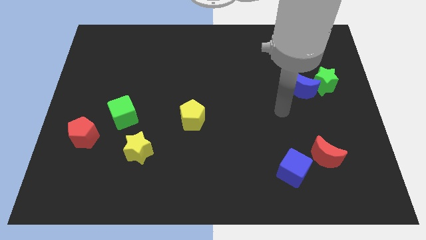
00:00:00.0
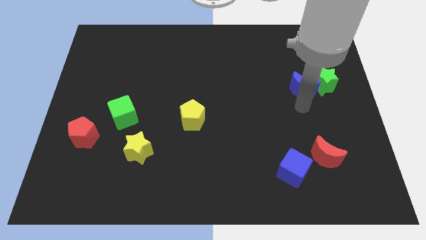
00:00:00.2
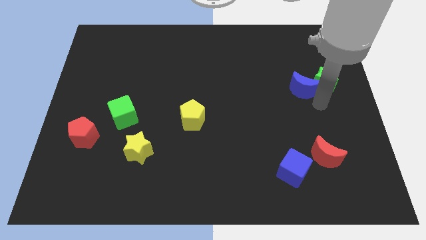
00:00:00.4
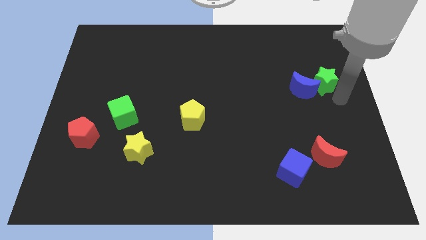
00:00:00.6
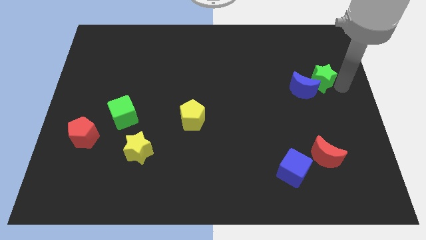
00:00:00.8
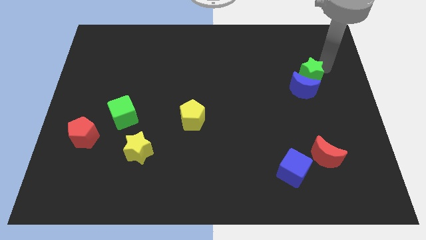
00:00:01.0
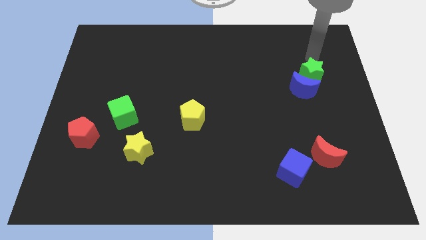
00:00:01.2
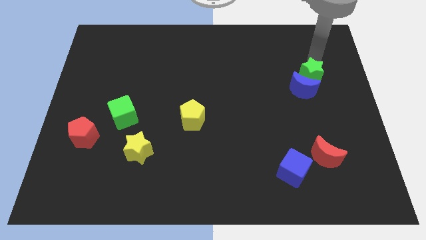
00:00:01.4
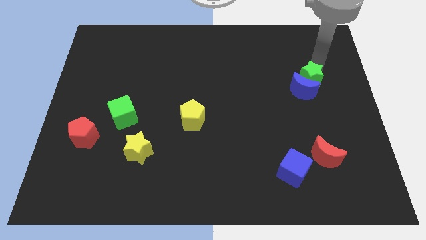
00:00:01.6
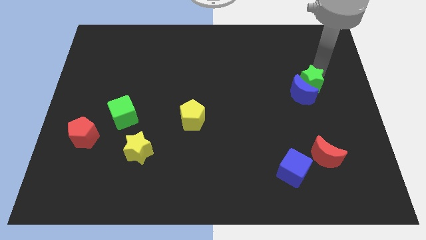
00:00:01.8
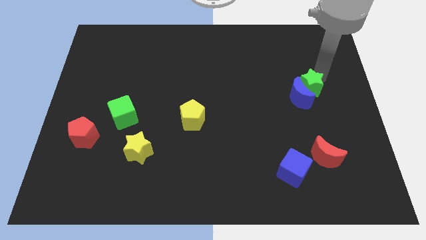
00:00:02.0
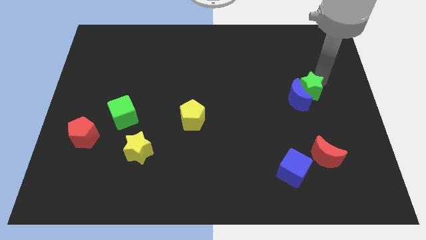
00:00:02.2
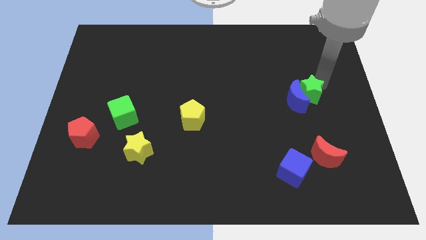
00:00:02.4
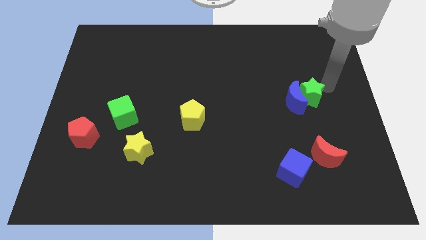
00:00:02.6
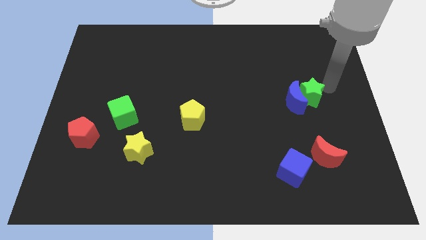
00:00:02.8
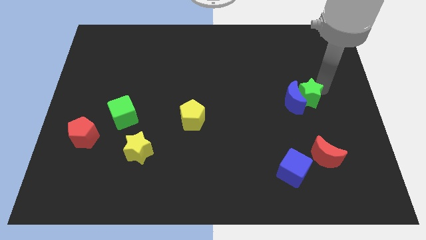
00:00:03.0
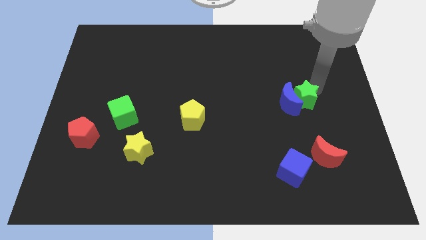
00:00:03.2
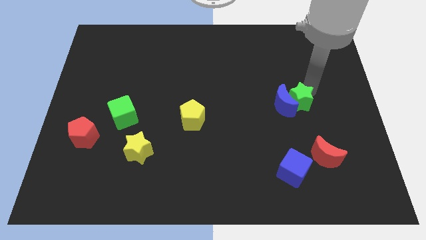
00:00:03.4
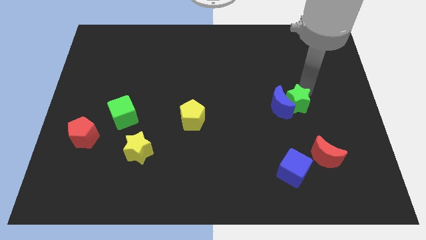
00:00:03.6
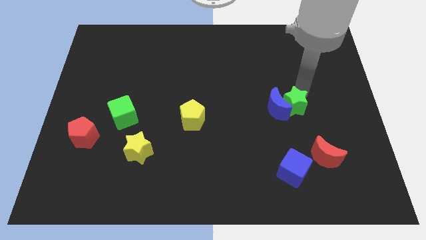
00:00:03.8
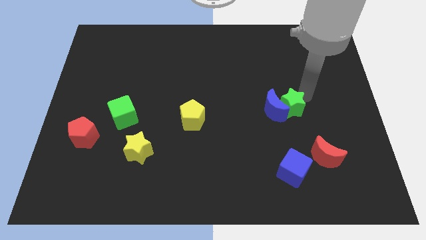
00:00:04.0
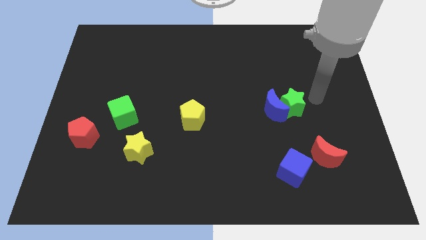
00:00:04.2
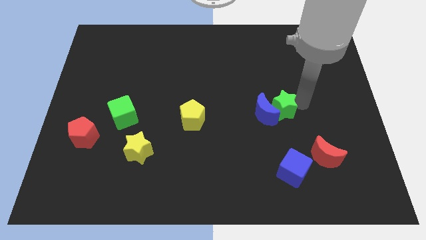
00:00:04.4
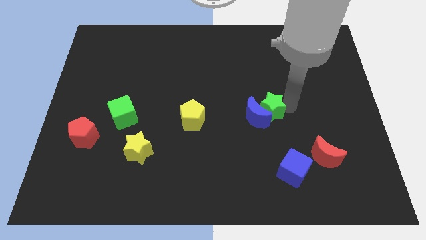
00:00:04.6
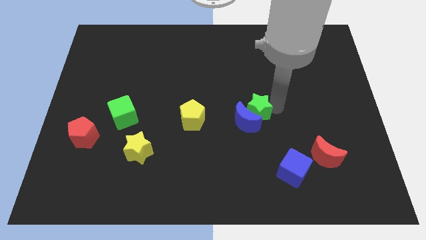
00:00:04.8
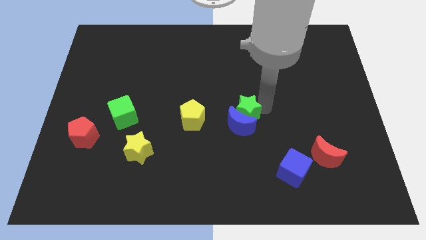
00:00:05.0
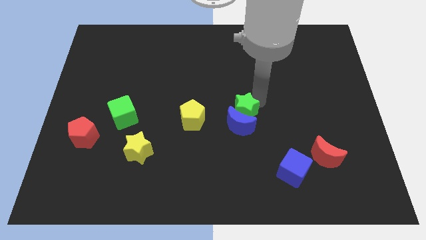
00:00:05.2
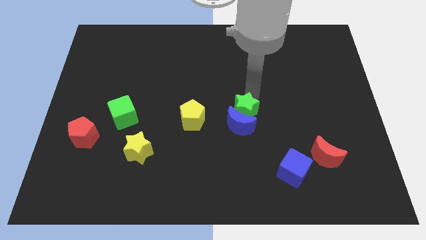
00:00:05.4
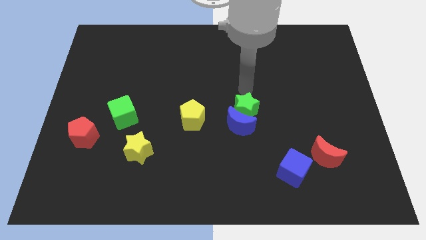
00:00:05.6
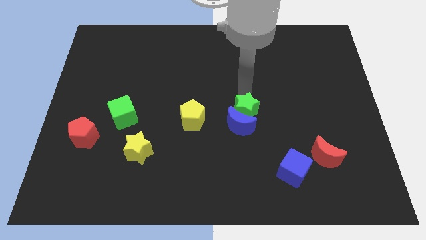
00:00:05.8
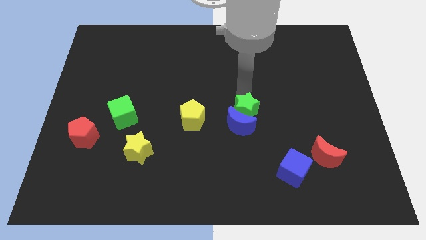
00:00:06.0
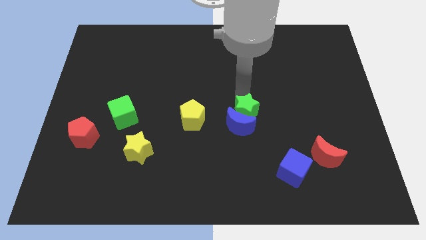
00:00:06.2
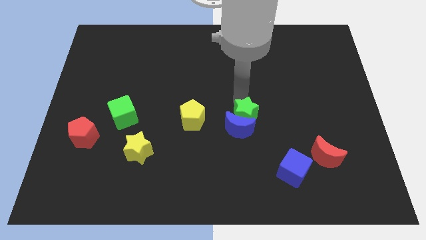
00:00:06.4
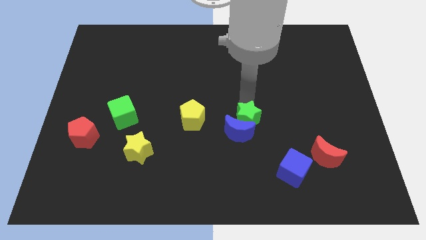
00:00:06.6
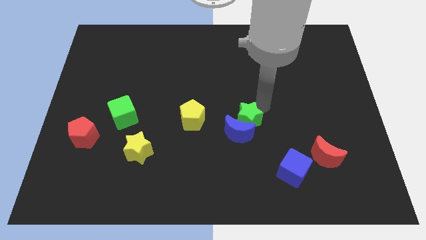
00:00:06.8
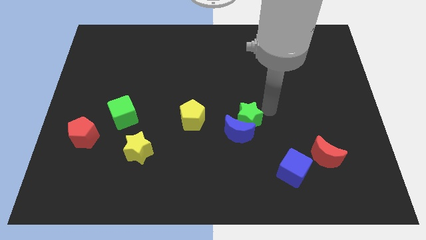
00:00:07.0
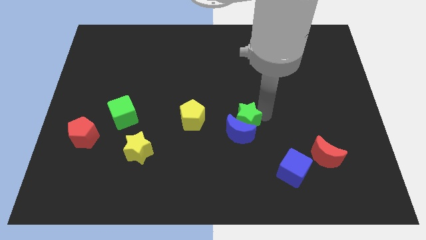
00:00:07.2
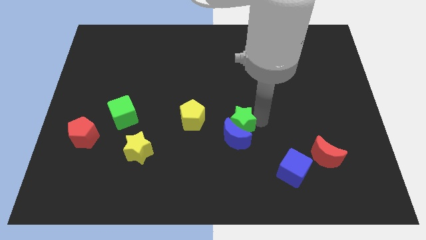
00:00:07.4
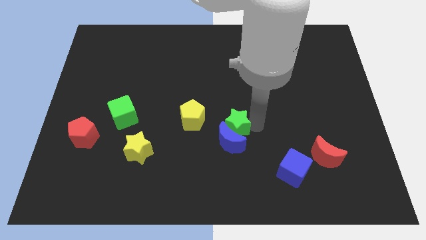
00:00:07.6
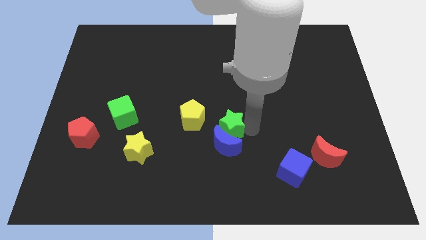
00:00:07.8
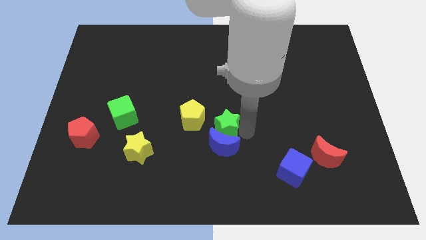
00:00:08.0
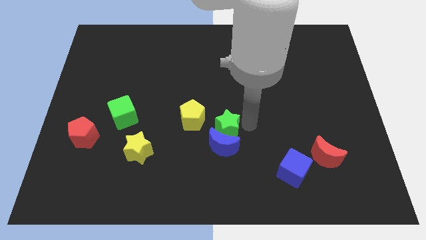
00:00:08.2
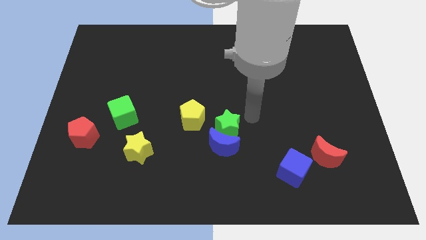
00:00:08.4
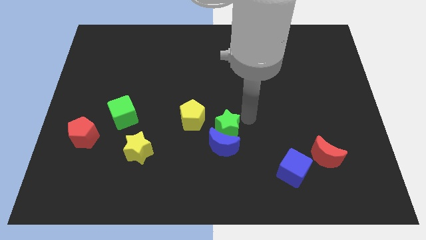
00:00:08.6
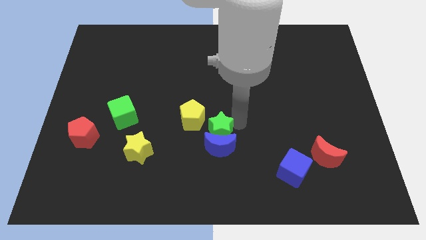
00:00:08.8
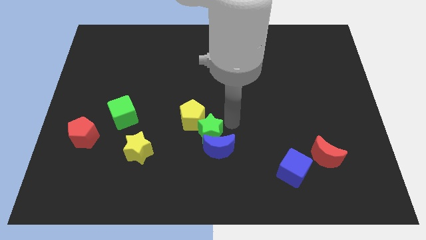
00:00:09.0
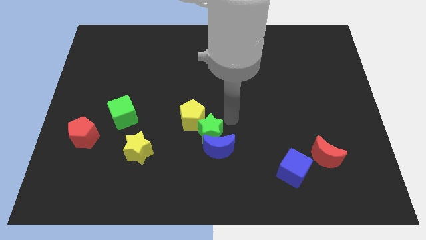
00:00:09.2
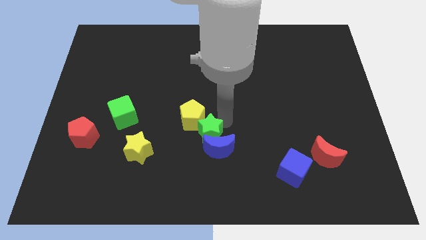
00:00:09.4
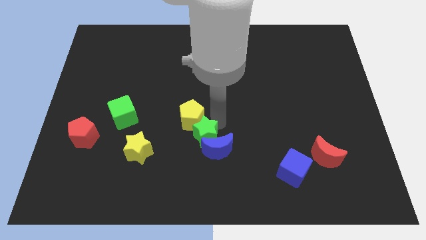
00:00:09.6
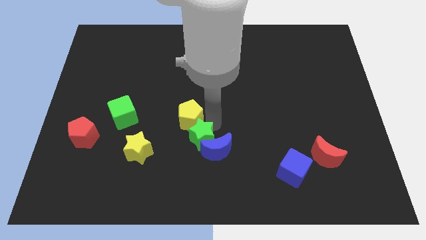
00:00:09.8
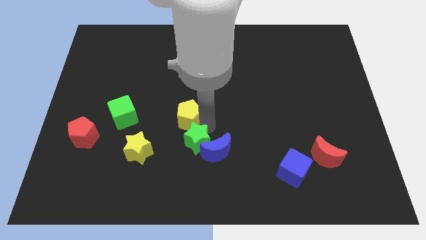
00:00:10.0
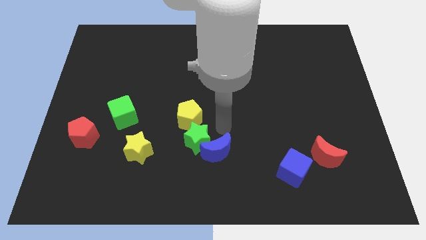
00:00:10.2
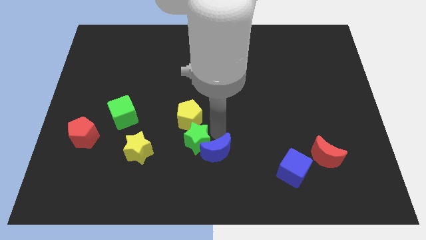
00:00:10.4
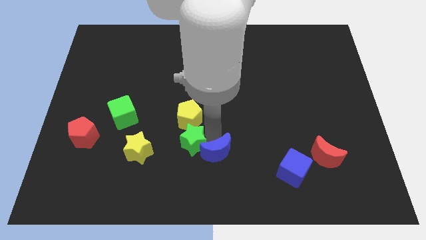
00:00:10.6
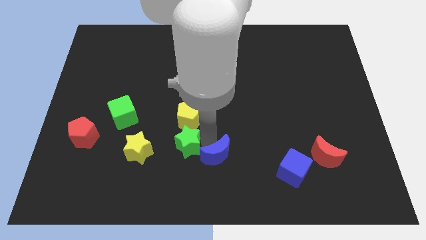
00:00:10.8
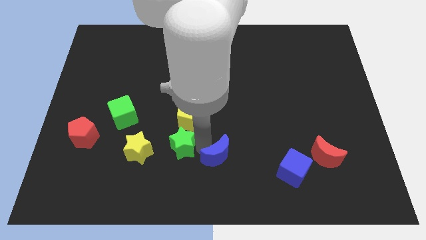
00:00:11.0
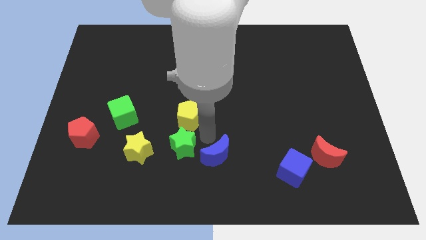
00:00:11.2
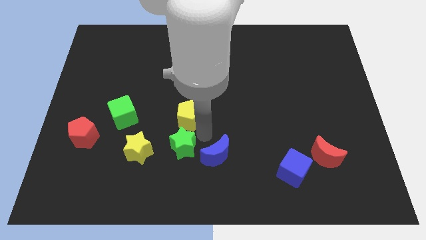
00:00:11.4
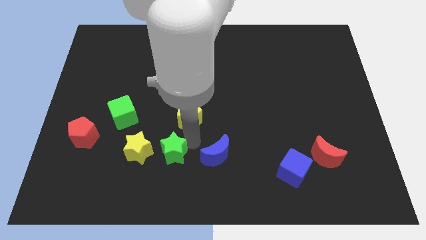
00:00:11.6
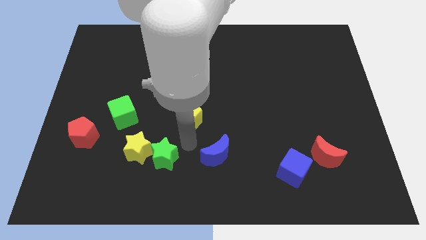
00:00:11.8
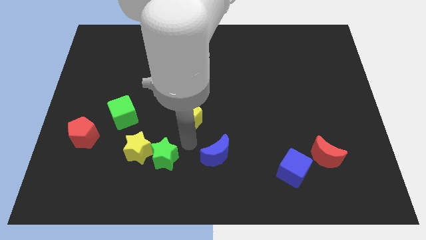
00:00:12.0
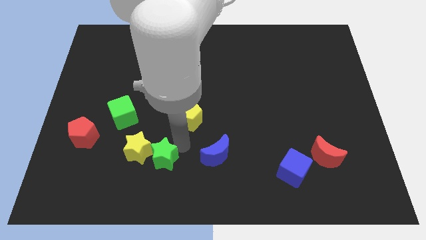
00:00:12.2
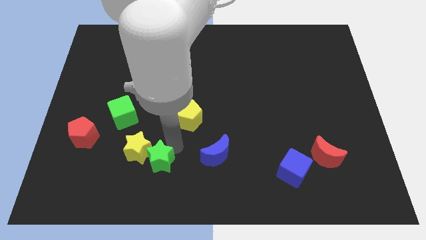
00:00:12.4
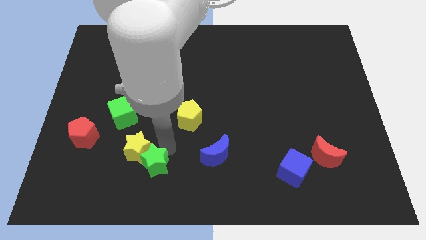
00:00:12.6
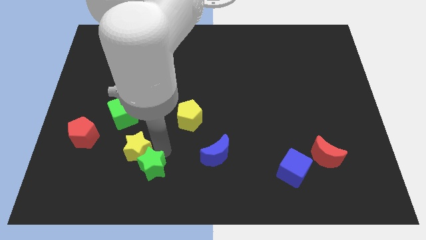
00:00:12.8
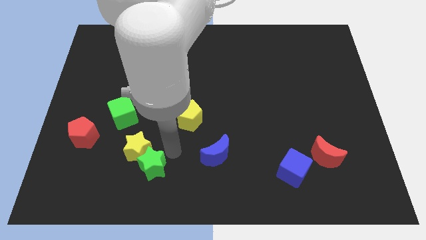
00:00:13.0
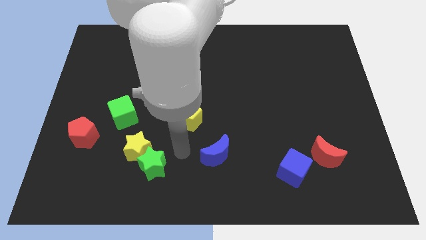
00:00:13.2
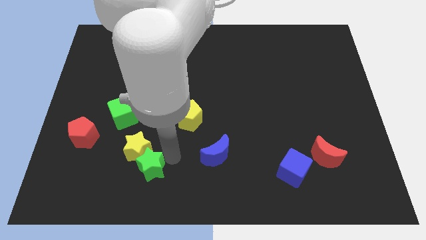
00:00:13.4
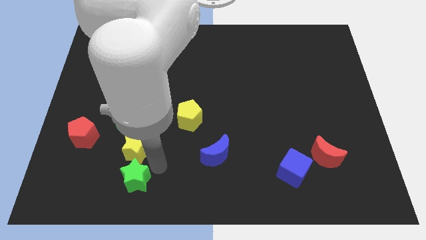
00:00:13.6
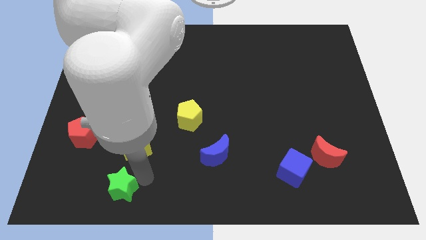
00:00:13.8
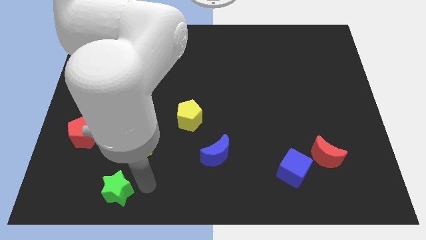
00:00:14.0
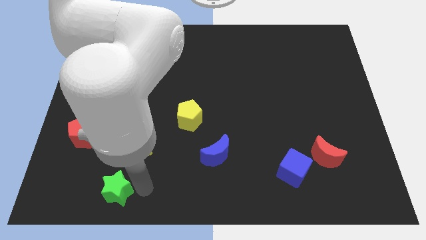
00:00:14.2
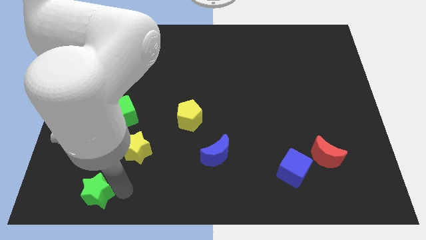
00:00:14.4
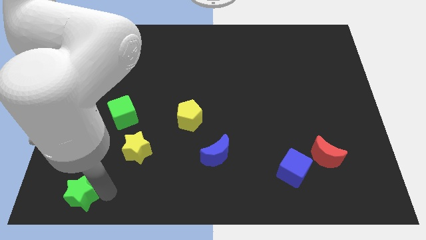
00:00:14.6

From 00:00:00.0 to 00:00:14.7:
move the green star to the lower left corner
